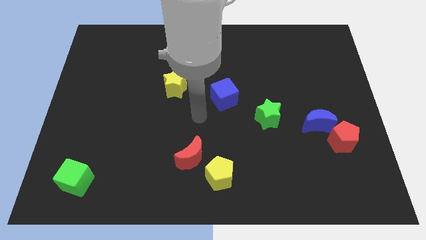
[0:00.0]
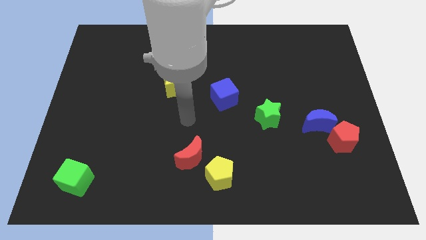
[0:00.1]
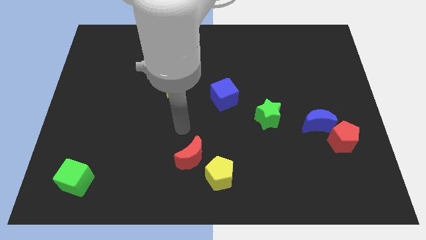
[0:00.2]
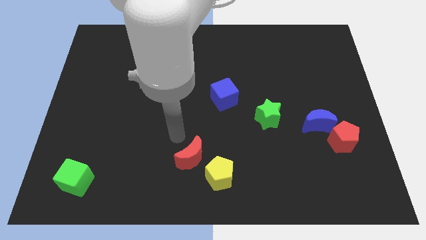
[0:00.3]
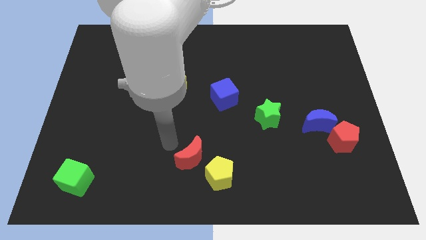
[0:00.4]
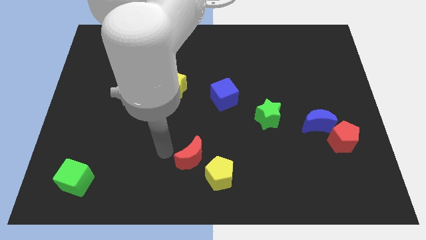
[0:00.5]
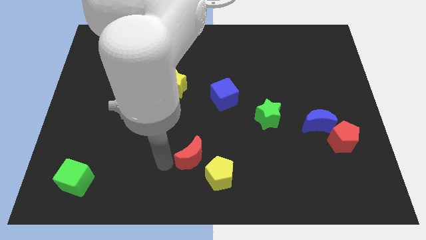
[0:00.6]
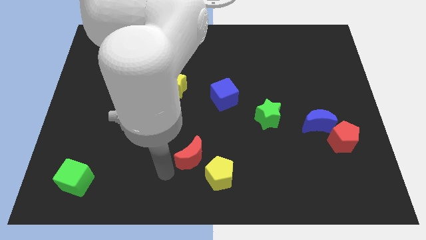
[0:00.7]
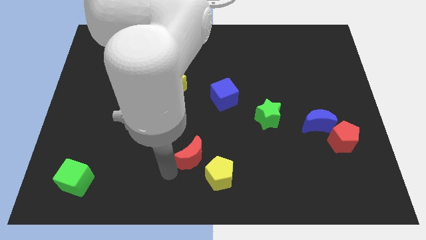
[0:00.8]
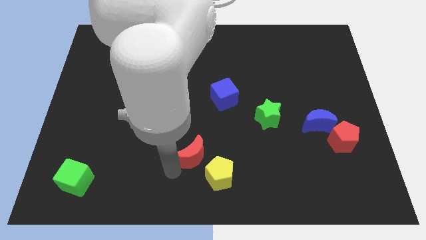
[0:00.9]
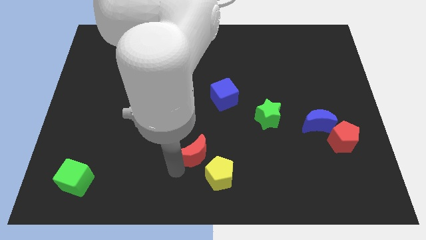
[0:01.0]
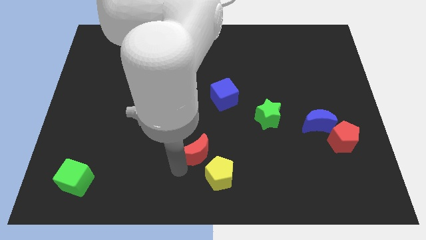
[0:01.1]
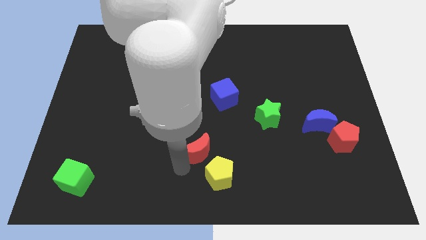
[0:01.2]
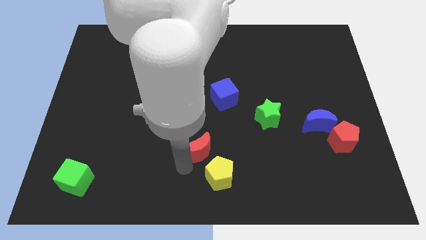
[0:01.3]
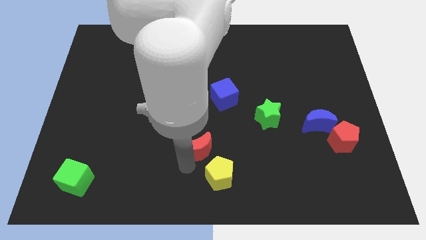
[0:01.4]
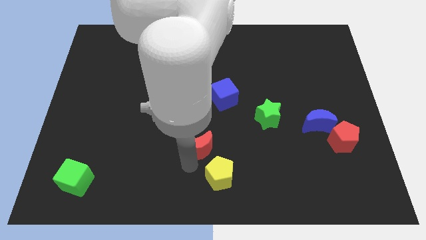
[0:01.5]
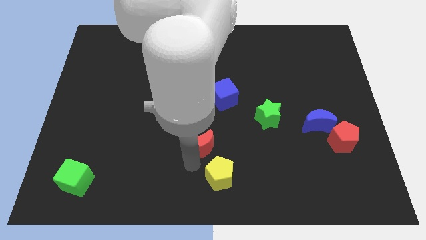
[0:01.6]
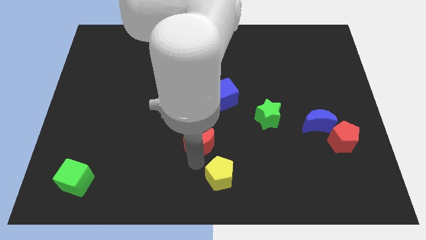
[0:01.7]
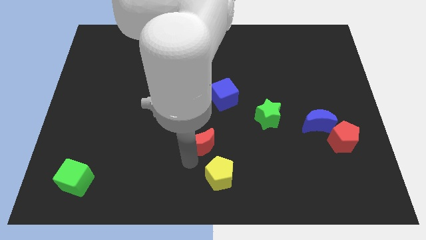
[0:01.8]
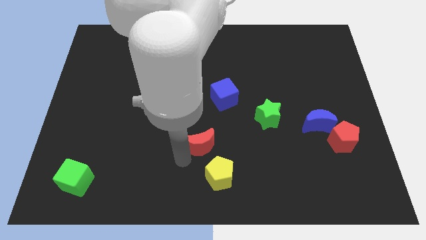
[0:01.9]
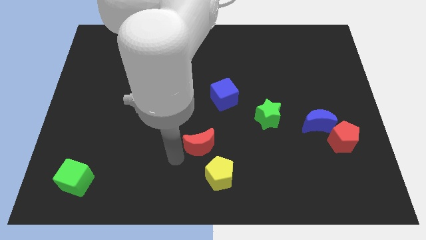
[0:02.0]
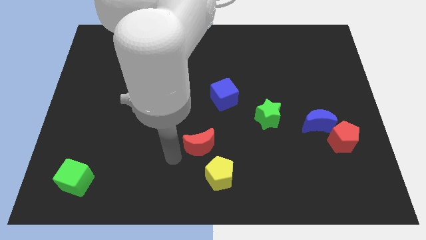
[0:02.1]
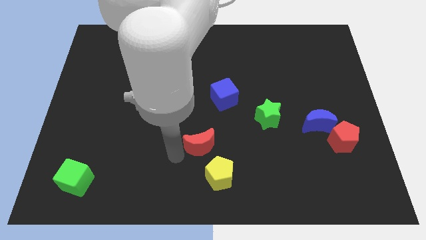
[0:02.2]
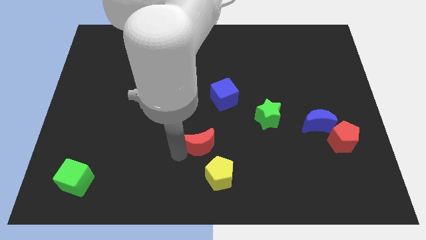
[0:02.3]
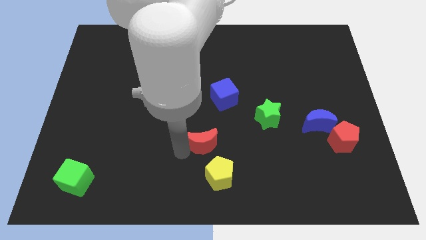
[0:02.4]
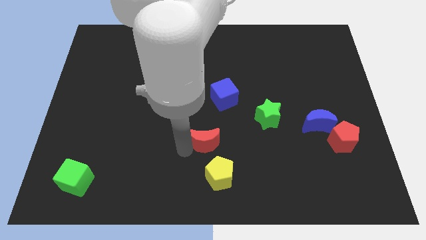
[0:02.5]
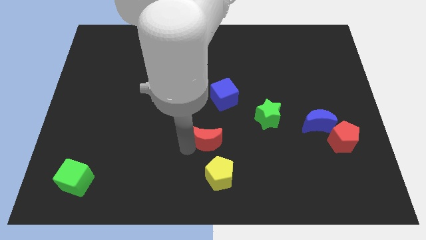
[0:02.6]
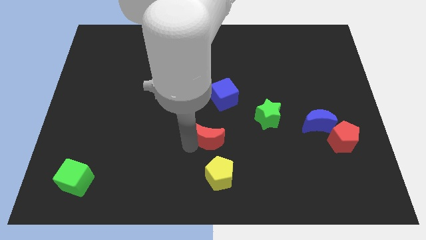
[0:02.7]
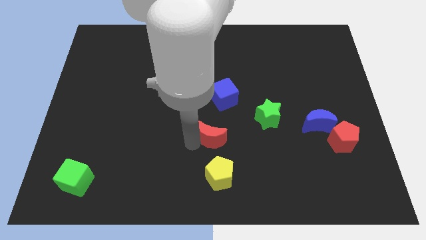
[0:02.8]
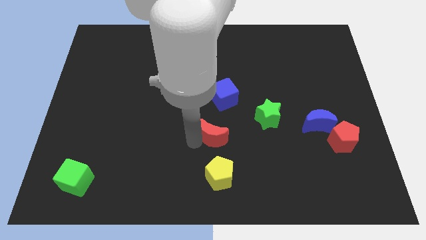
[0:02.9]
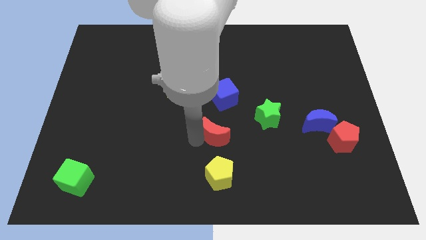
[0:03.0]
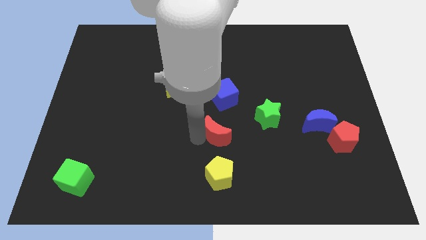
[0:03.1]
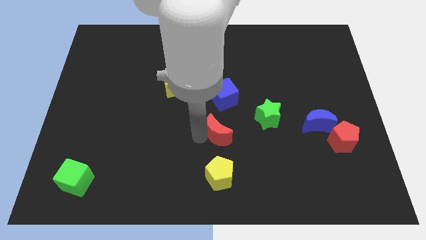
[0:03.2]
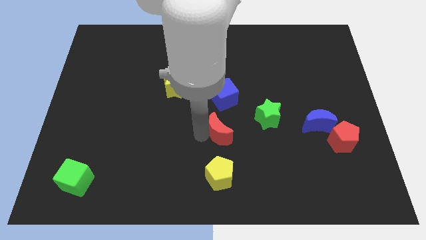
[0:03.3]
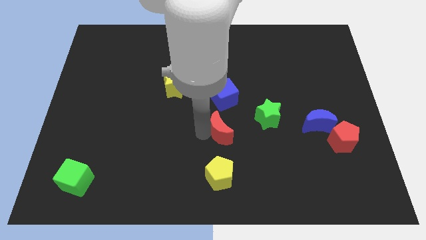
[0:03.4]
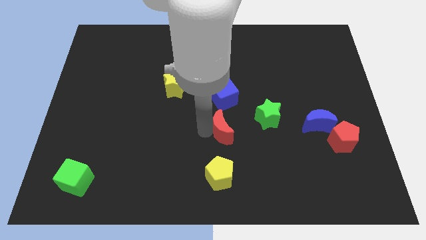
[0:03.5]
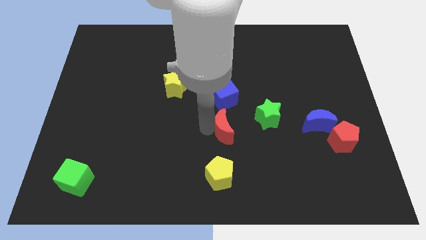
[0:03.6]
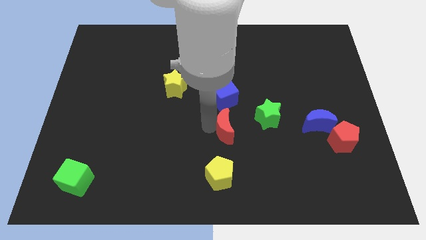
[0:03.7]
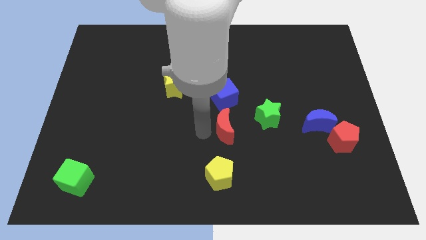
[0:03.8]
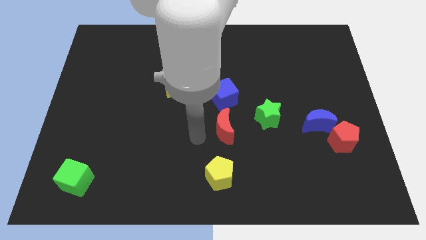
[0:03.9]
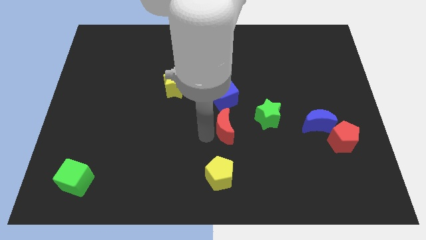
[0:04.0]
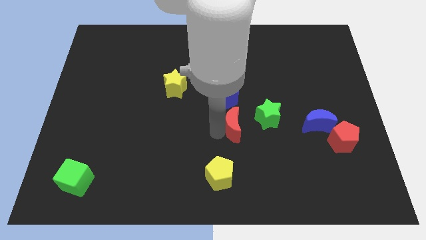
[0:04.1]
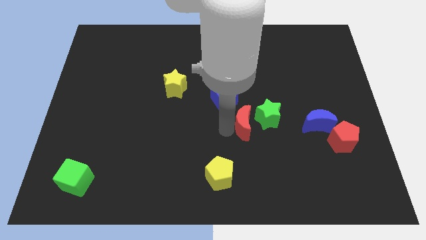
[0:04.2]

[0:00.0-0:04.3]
put the red moon next to the green star

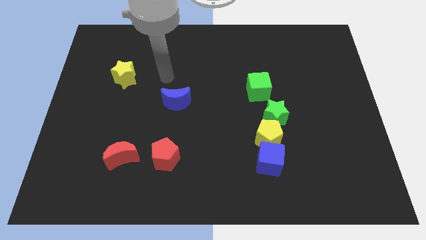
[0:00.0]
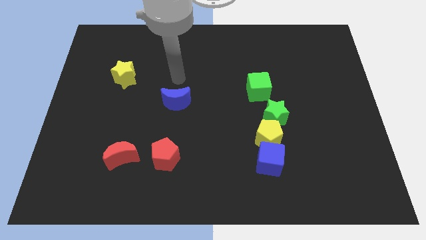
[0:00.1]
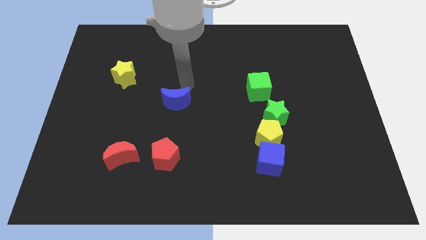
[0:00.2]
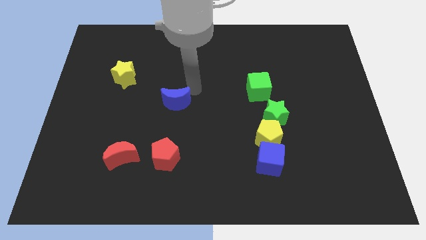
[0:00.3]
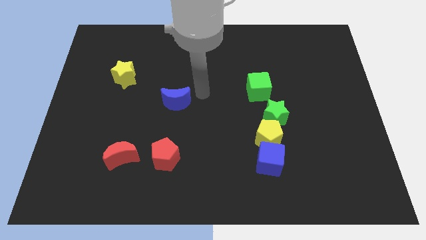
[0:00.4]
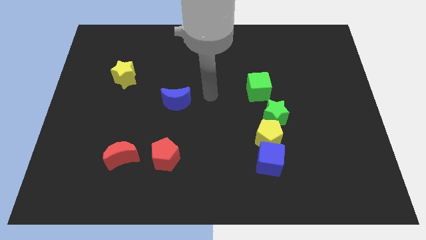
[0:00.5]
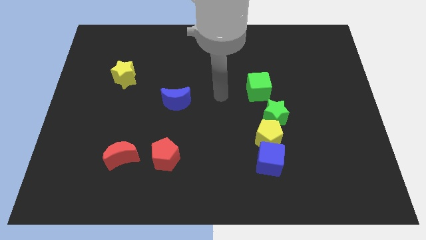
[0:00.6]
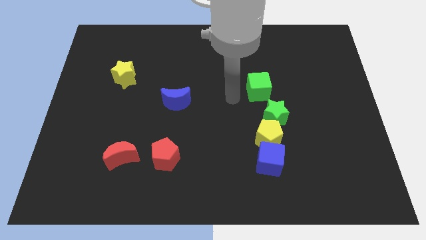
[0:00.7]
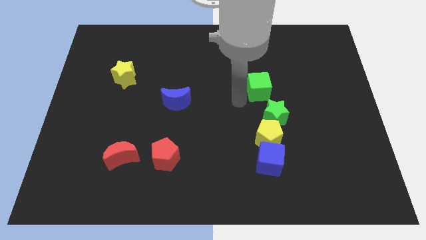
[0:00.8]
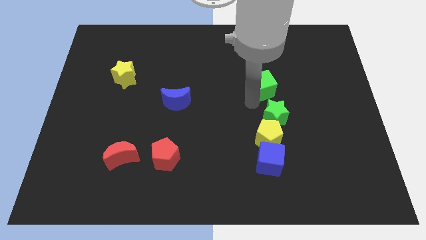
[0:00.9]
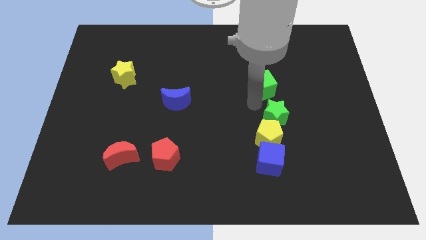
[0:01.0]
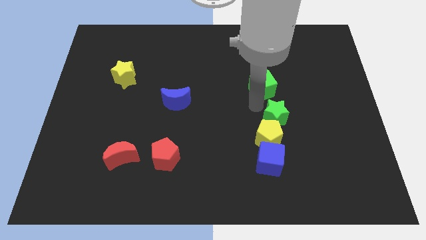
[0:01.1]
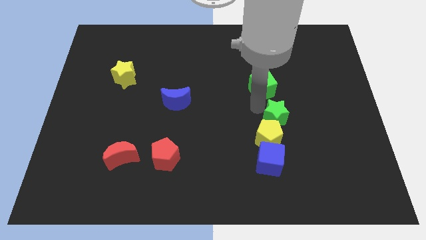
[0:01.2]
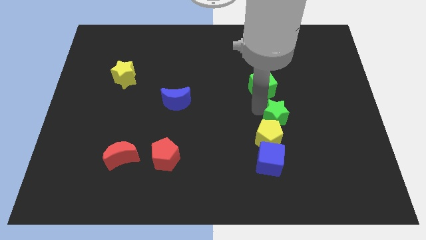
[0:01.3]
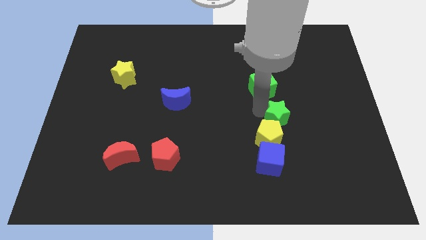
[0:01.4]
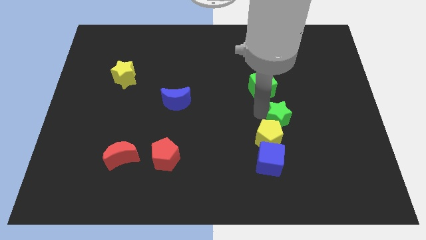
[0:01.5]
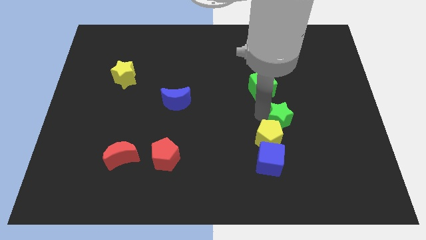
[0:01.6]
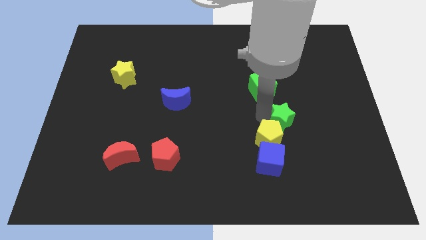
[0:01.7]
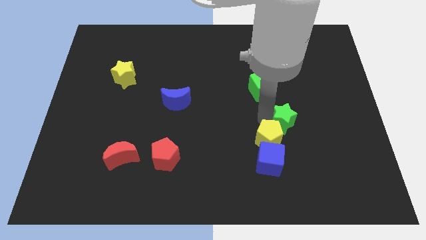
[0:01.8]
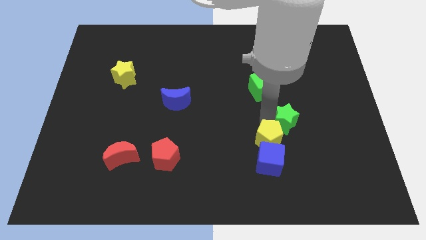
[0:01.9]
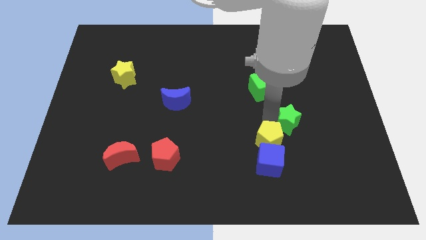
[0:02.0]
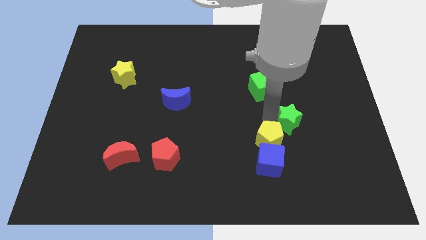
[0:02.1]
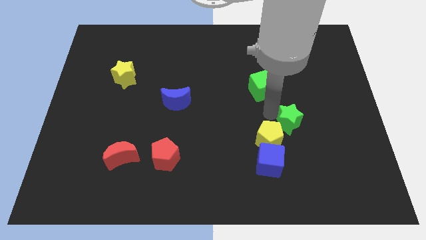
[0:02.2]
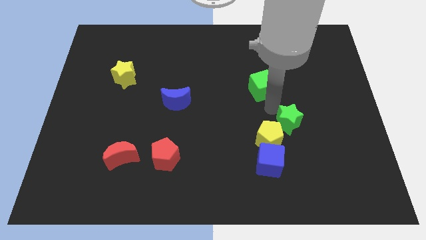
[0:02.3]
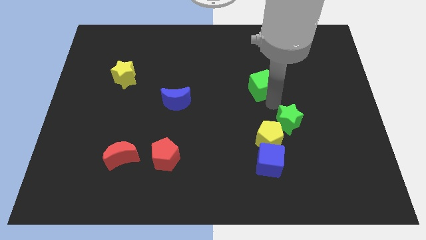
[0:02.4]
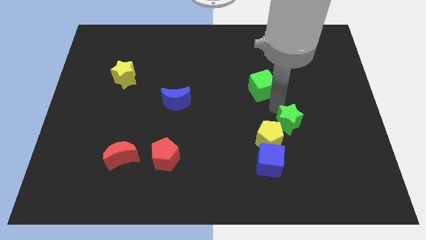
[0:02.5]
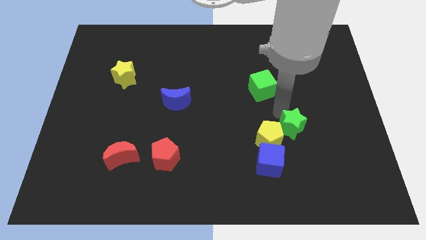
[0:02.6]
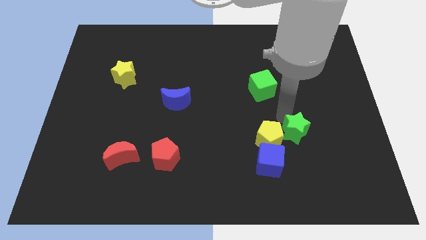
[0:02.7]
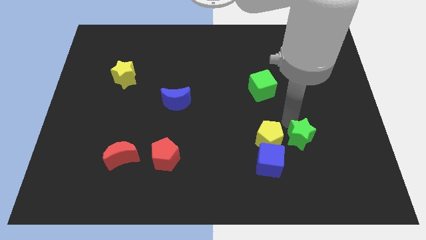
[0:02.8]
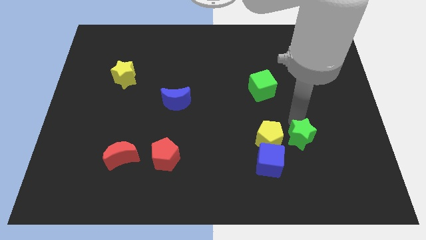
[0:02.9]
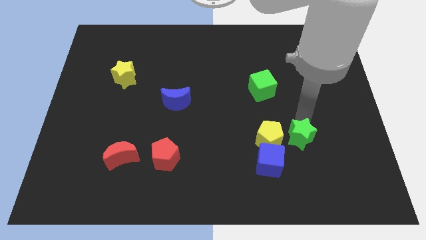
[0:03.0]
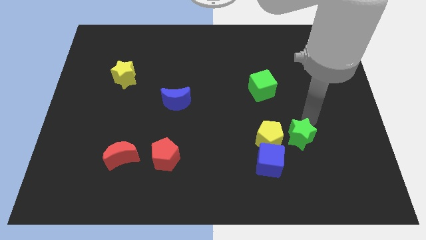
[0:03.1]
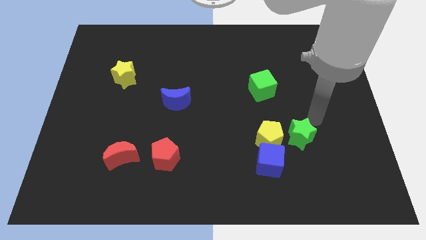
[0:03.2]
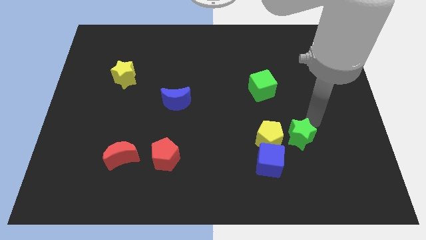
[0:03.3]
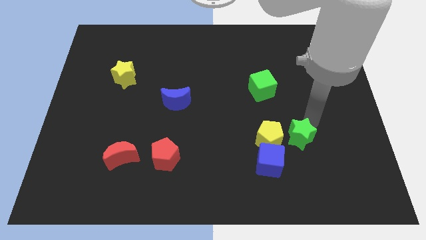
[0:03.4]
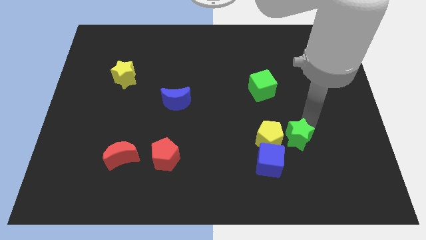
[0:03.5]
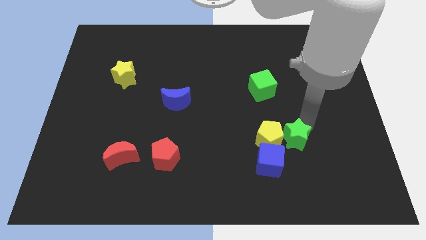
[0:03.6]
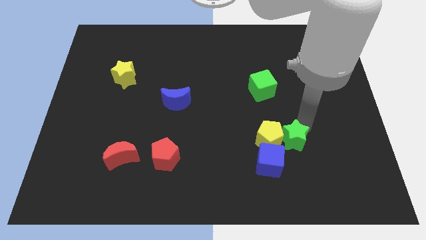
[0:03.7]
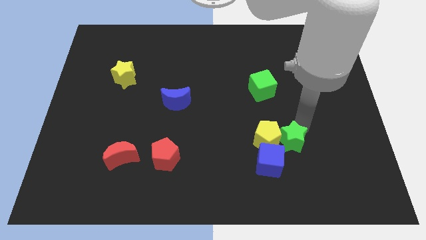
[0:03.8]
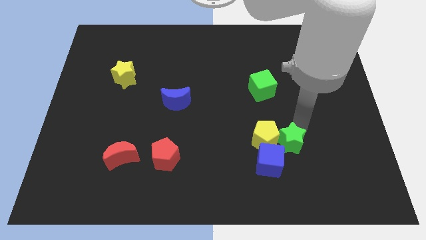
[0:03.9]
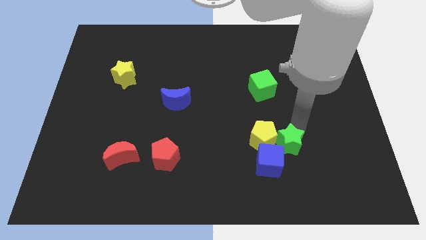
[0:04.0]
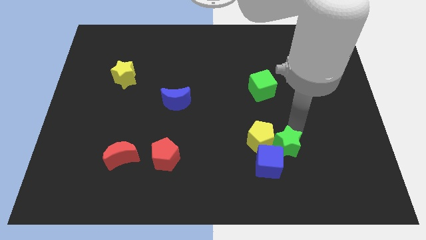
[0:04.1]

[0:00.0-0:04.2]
slide the green star towards the blue cube
